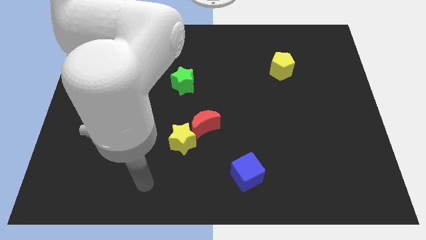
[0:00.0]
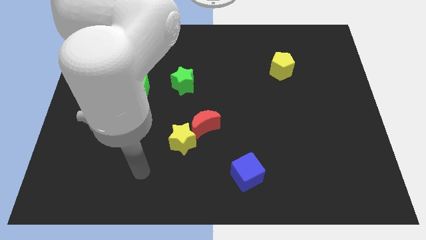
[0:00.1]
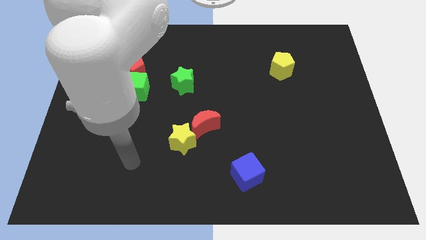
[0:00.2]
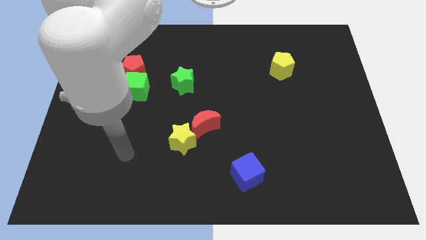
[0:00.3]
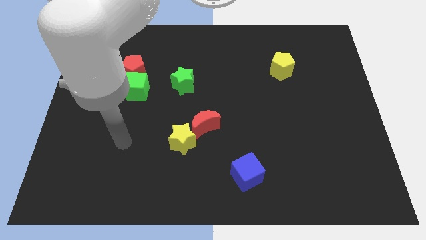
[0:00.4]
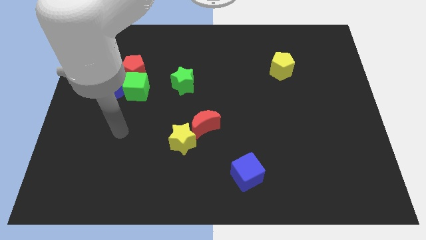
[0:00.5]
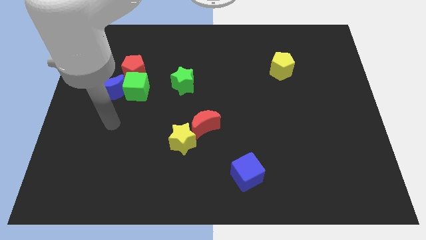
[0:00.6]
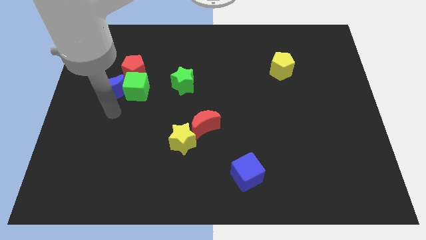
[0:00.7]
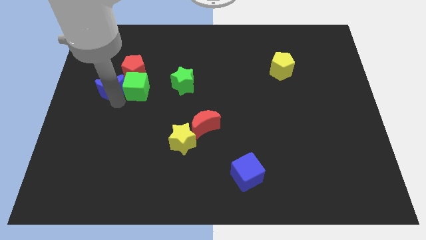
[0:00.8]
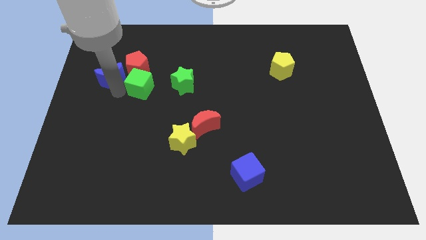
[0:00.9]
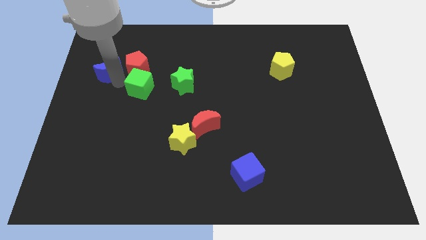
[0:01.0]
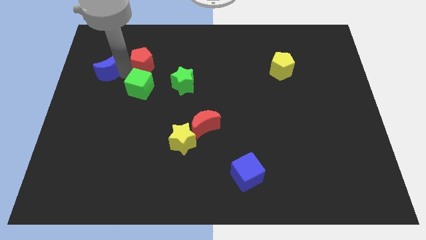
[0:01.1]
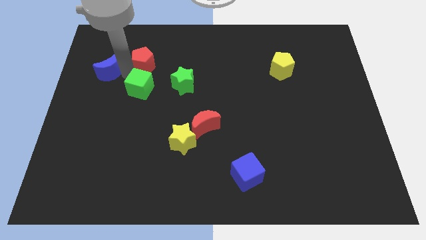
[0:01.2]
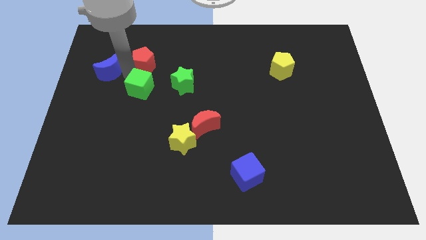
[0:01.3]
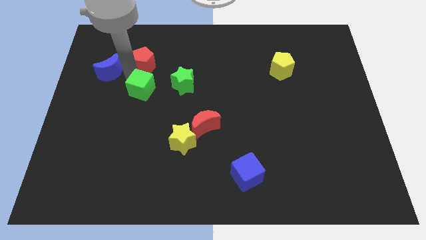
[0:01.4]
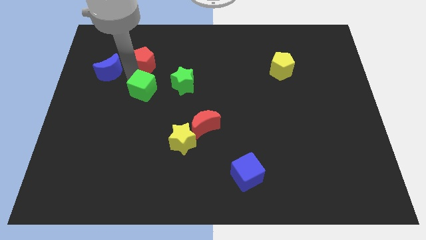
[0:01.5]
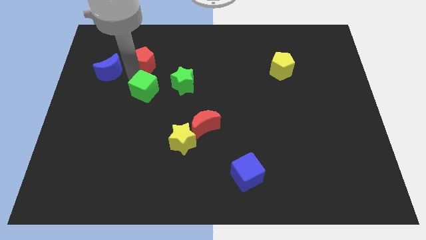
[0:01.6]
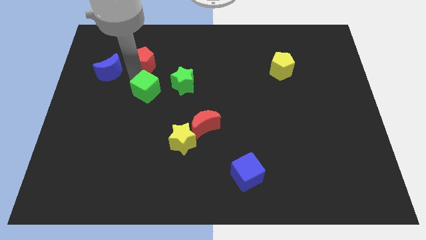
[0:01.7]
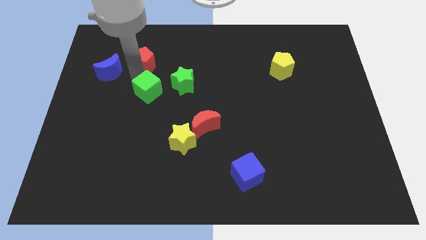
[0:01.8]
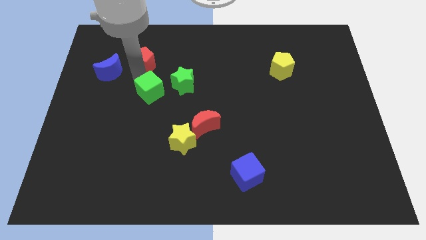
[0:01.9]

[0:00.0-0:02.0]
move the green cube away from the blue moon and red pentagon

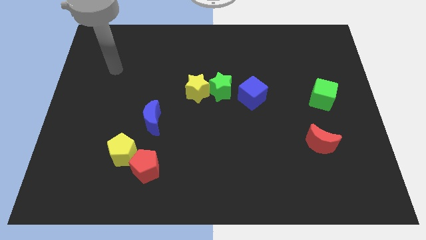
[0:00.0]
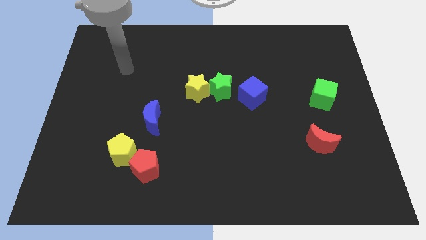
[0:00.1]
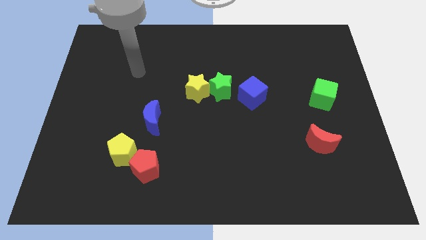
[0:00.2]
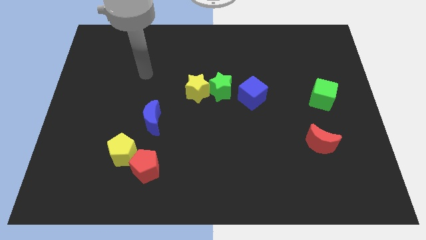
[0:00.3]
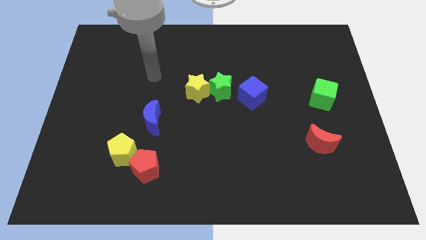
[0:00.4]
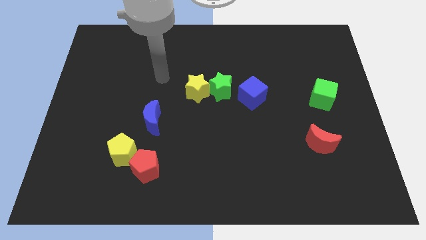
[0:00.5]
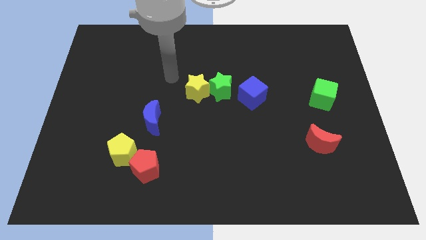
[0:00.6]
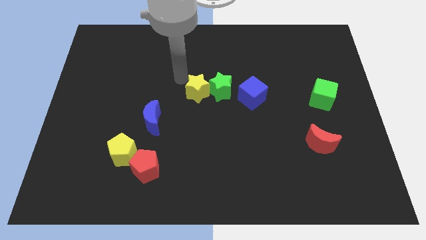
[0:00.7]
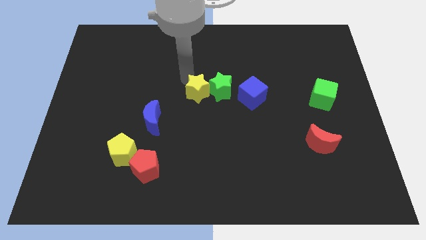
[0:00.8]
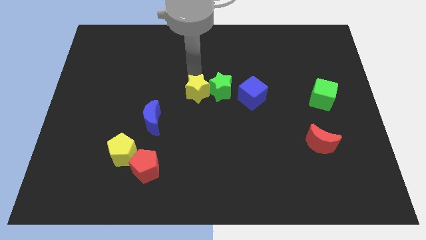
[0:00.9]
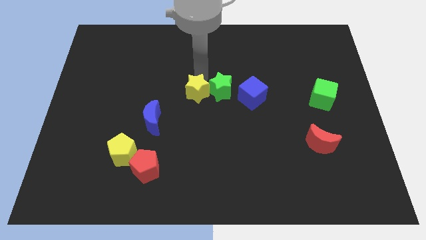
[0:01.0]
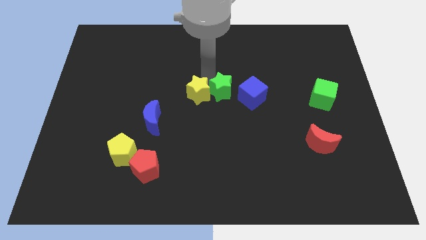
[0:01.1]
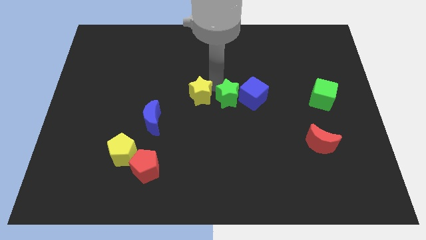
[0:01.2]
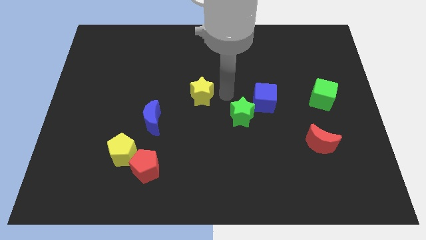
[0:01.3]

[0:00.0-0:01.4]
pull the yellow star apart from the green star

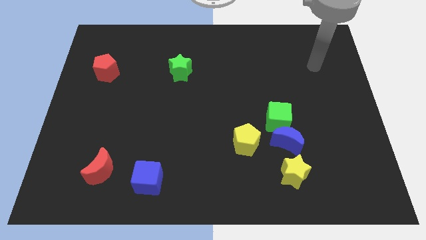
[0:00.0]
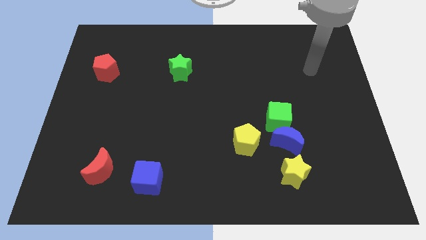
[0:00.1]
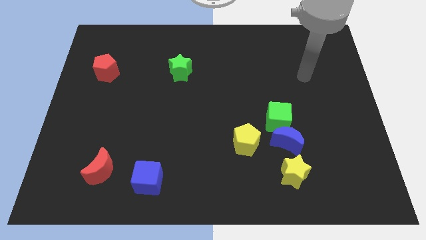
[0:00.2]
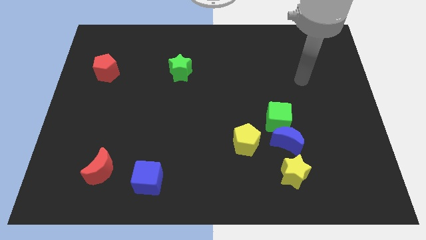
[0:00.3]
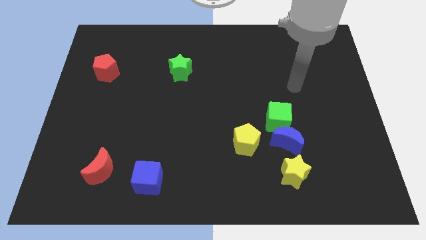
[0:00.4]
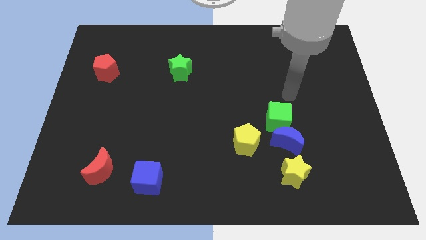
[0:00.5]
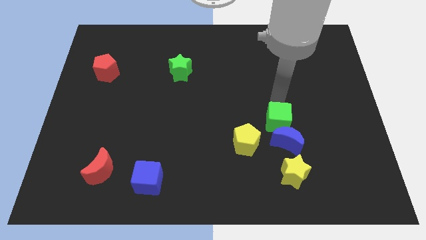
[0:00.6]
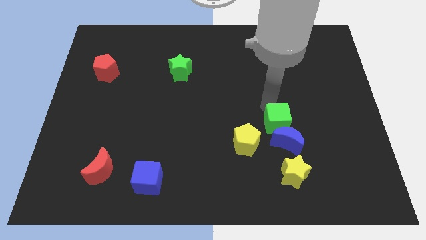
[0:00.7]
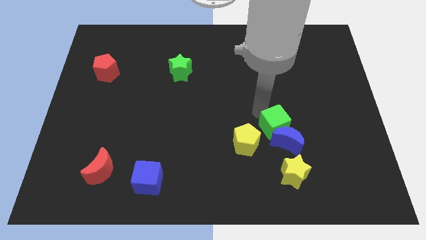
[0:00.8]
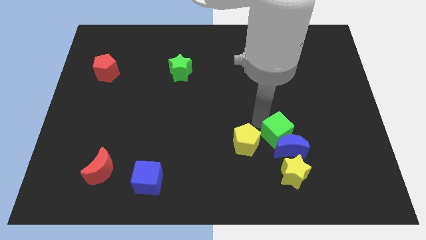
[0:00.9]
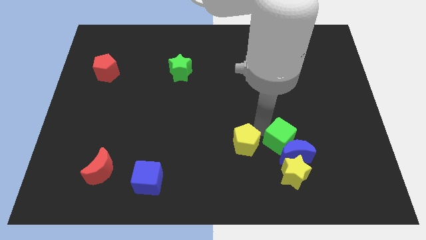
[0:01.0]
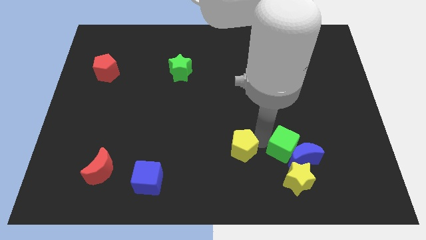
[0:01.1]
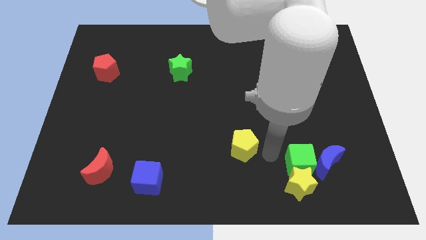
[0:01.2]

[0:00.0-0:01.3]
move the blue moon away from the green cube, yellow star, and yellow pentagon

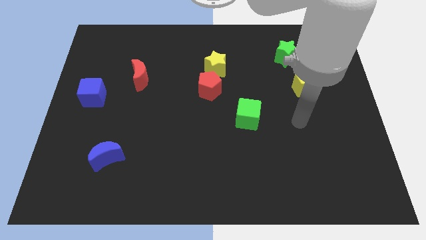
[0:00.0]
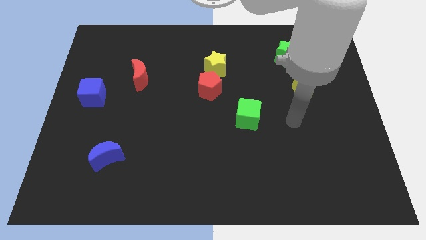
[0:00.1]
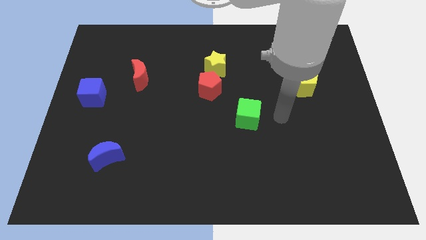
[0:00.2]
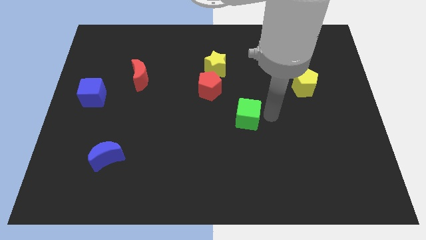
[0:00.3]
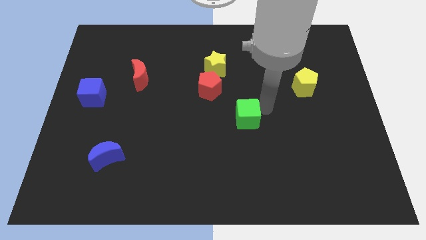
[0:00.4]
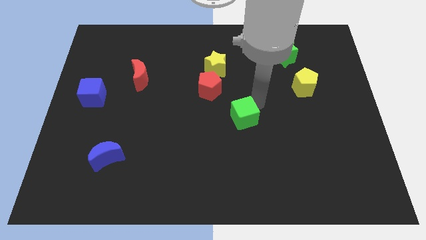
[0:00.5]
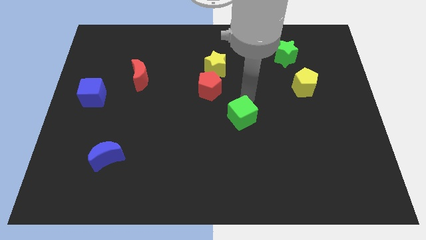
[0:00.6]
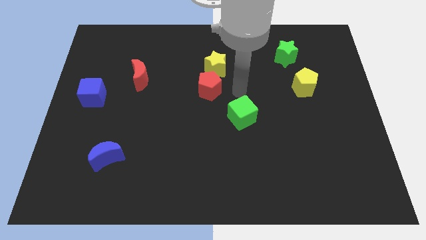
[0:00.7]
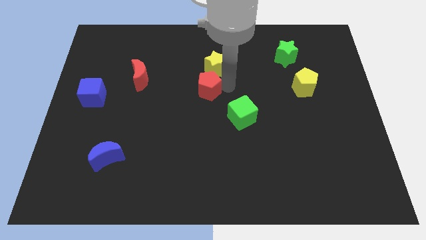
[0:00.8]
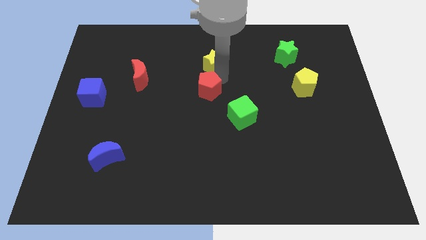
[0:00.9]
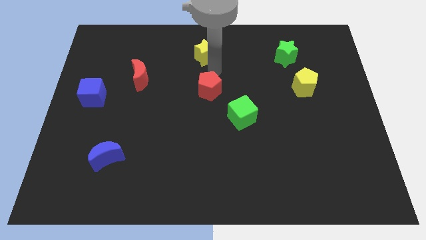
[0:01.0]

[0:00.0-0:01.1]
move the red pentagon away from the yellow star

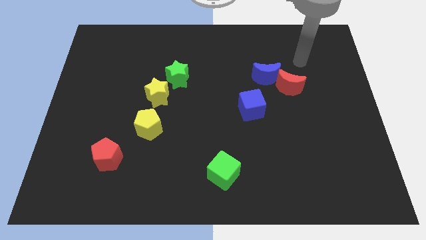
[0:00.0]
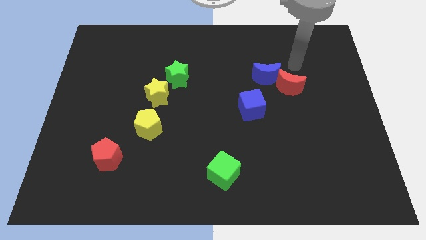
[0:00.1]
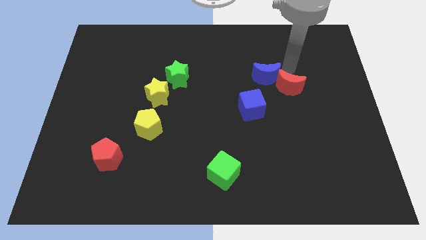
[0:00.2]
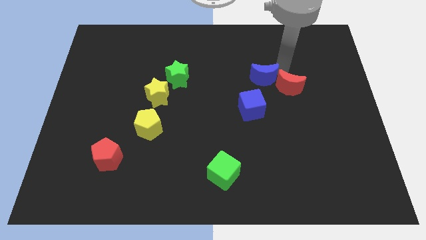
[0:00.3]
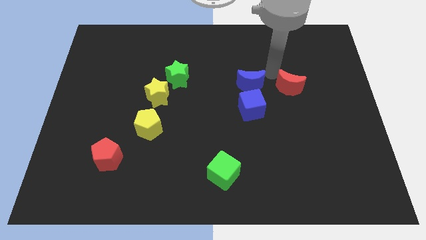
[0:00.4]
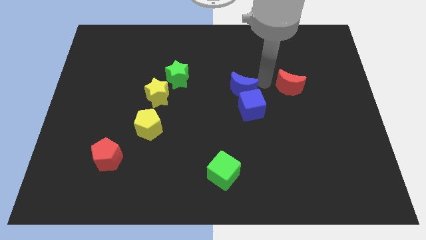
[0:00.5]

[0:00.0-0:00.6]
pull the red moon apart from the blue moon

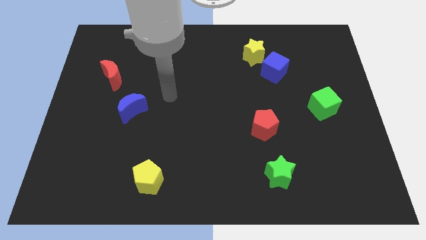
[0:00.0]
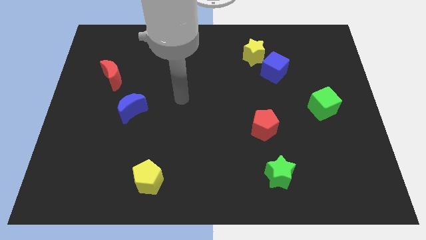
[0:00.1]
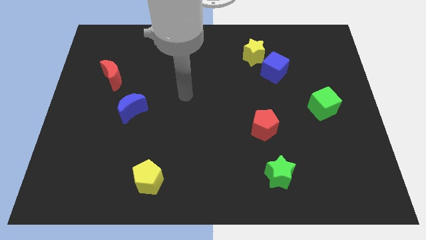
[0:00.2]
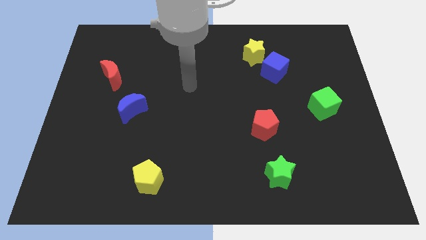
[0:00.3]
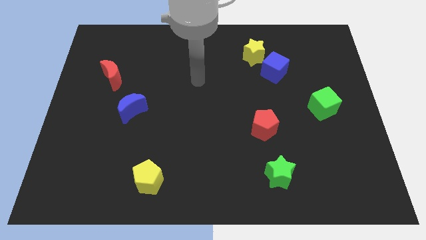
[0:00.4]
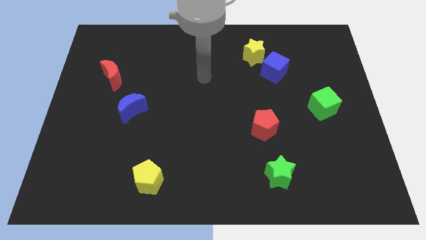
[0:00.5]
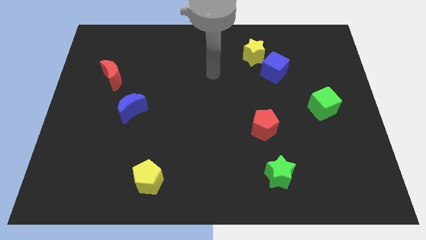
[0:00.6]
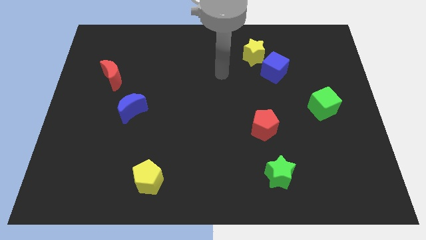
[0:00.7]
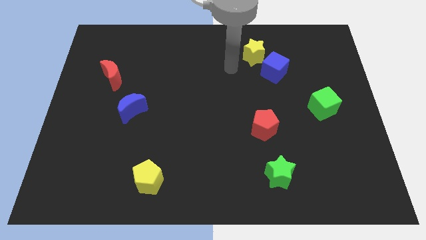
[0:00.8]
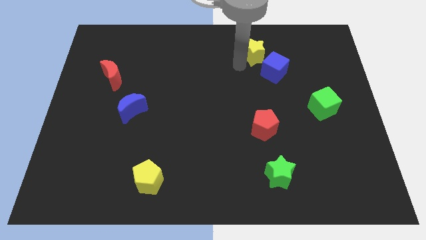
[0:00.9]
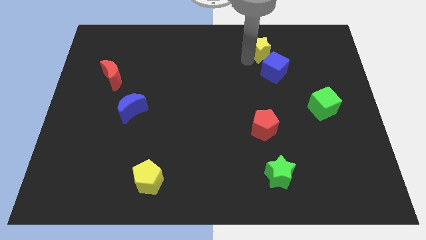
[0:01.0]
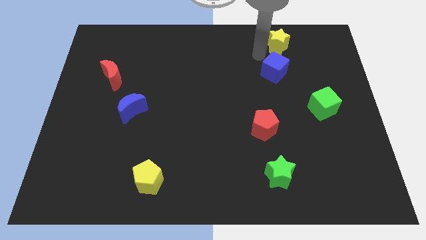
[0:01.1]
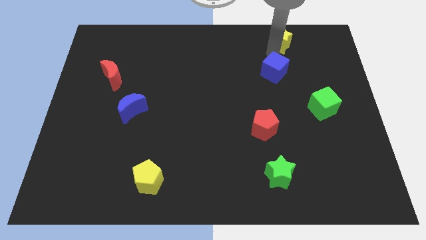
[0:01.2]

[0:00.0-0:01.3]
separate the blue cube from the yellow star

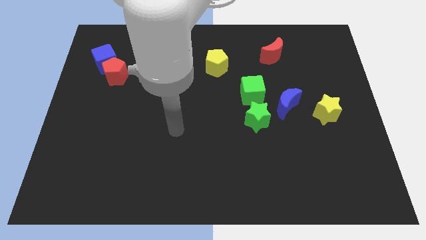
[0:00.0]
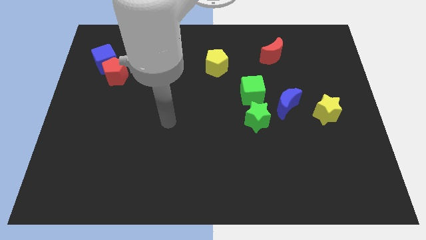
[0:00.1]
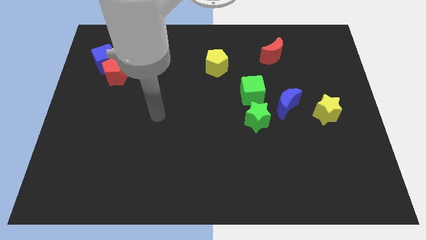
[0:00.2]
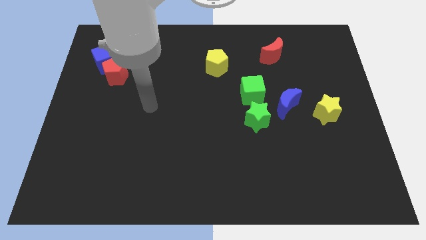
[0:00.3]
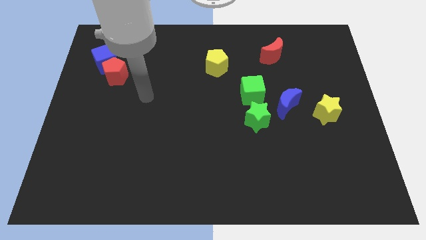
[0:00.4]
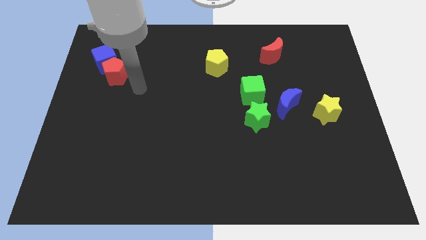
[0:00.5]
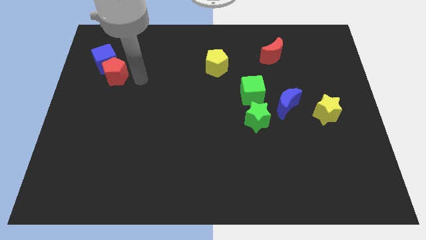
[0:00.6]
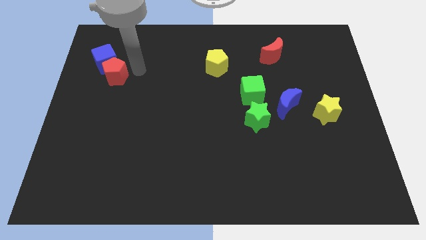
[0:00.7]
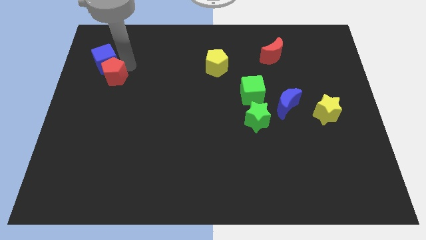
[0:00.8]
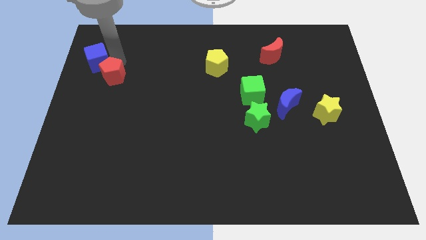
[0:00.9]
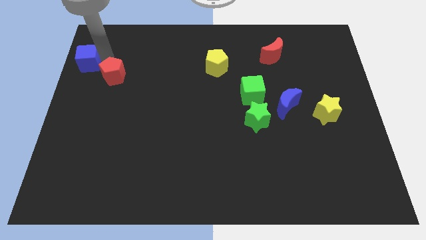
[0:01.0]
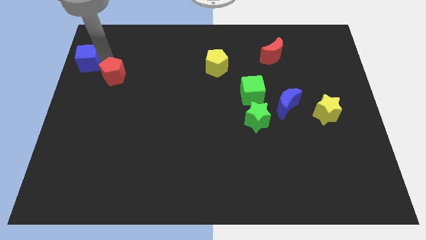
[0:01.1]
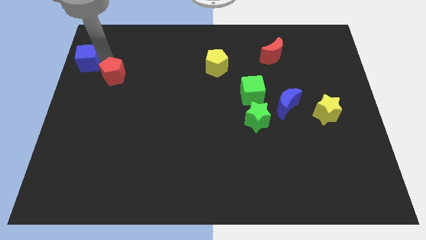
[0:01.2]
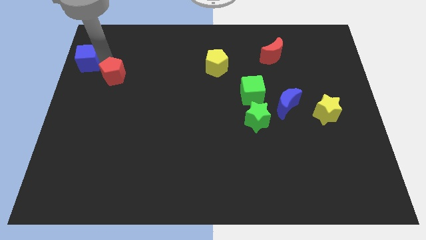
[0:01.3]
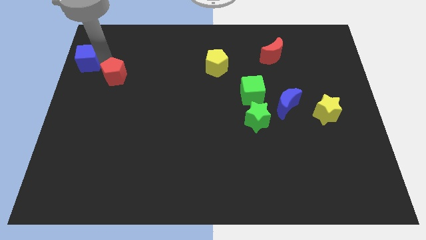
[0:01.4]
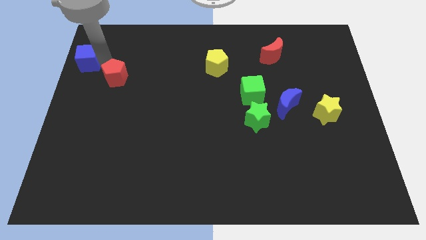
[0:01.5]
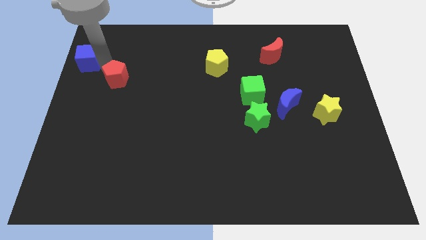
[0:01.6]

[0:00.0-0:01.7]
pull the red pentagon apart from the blue cube
